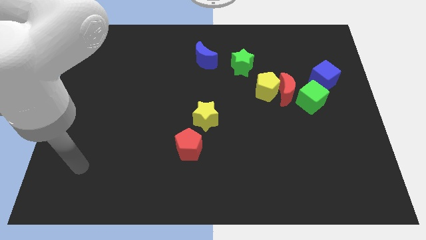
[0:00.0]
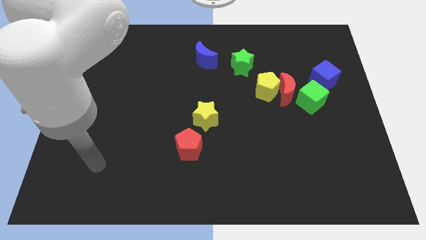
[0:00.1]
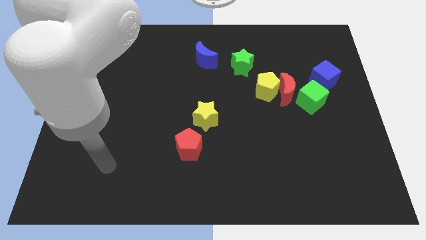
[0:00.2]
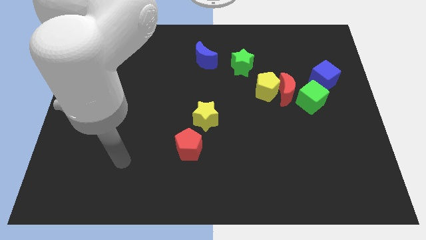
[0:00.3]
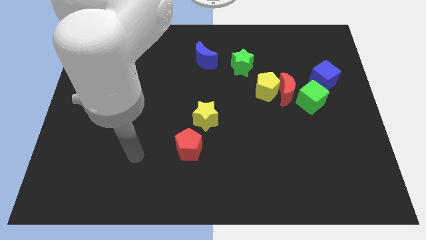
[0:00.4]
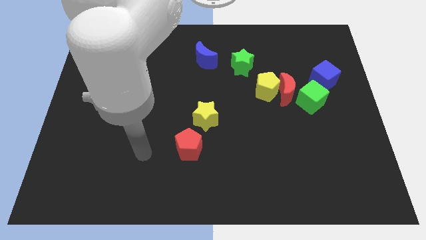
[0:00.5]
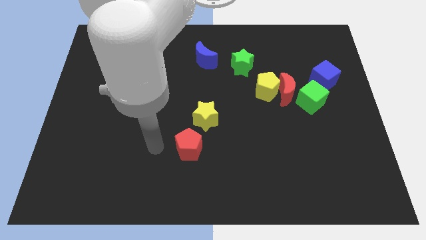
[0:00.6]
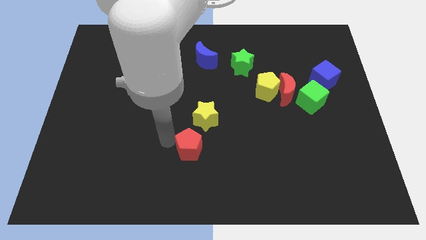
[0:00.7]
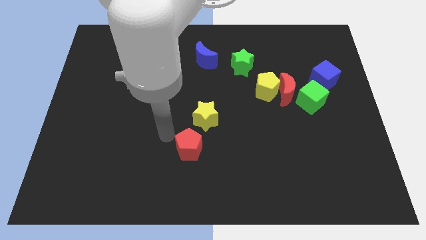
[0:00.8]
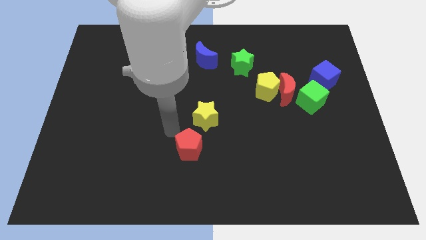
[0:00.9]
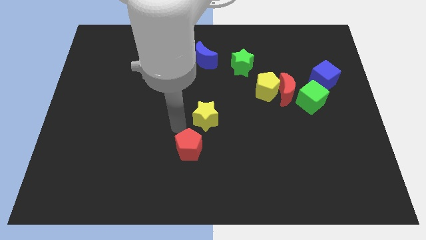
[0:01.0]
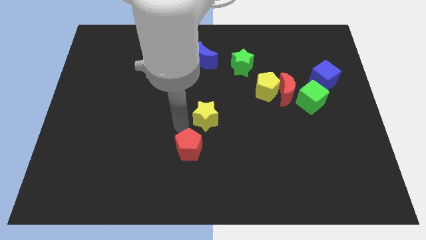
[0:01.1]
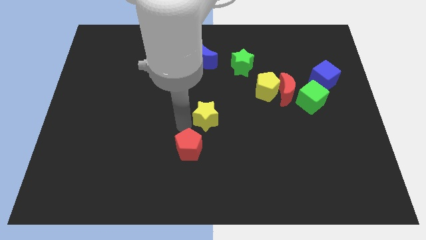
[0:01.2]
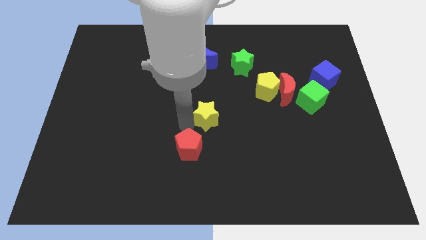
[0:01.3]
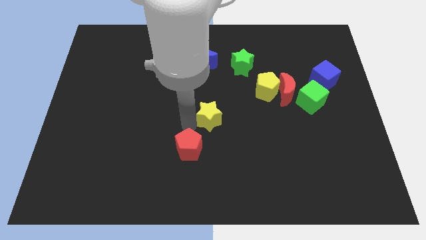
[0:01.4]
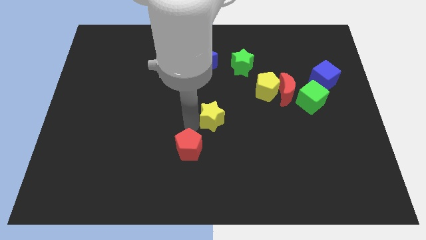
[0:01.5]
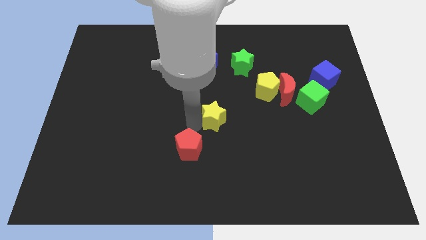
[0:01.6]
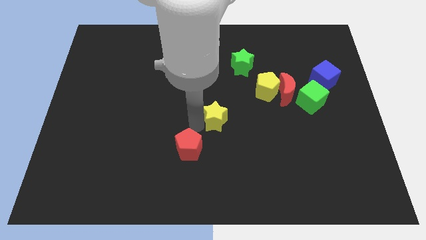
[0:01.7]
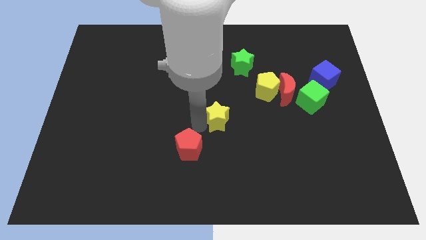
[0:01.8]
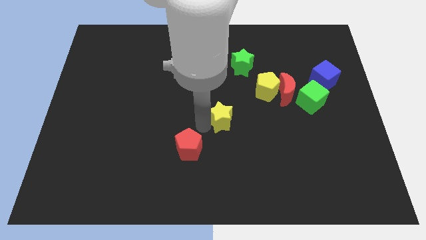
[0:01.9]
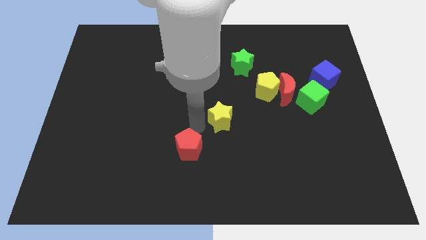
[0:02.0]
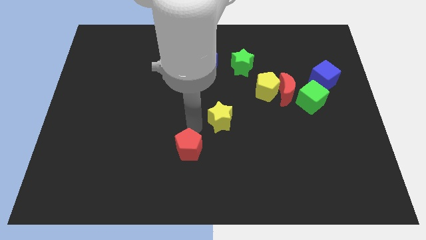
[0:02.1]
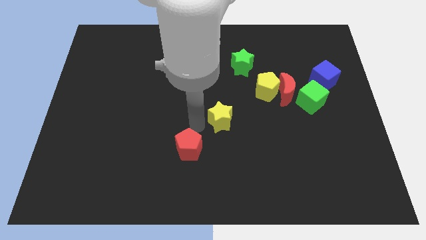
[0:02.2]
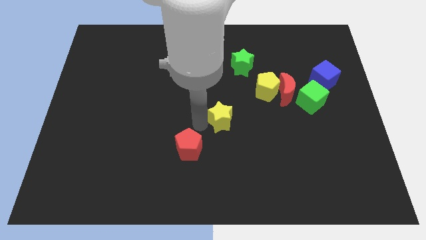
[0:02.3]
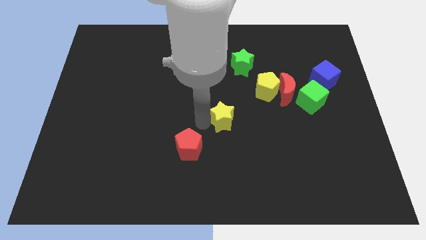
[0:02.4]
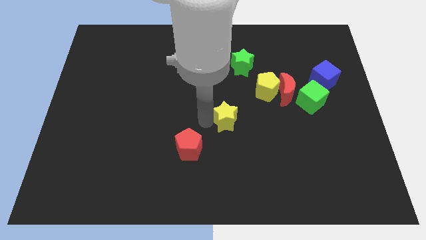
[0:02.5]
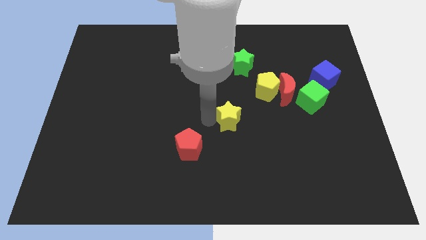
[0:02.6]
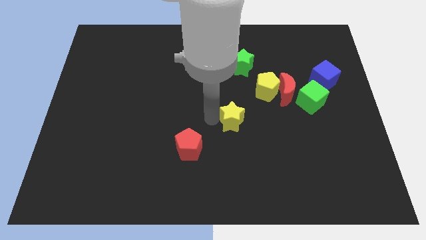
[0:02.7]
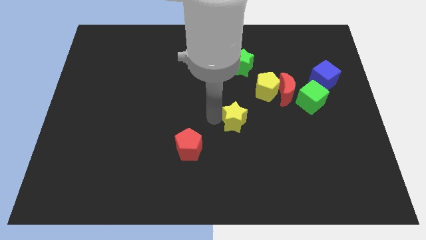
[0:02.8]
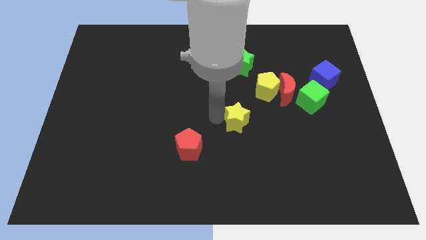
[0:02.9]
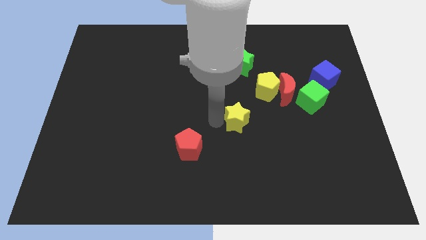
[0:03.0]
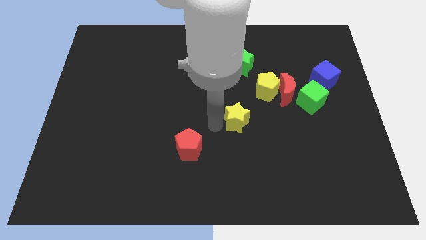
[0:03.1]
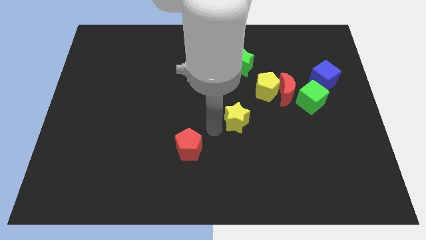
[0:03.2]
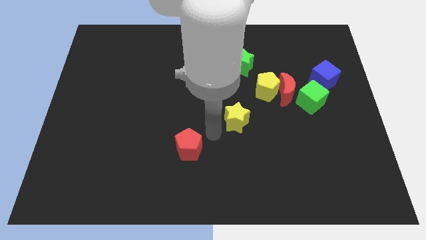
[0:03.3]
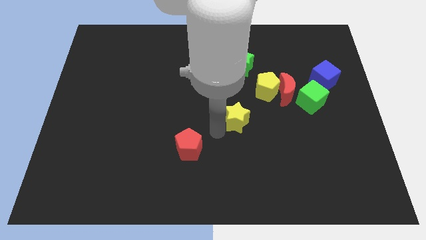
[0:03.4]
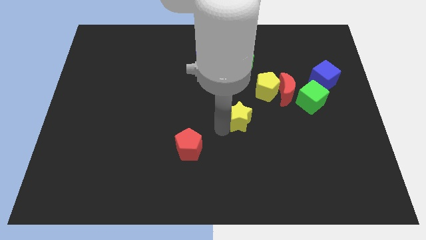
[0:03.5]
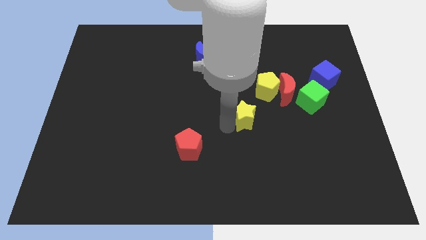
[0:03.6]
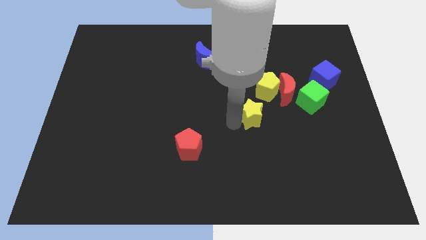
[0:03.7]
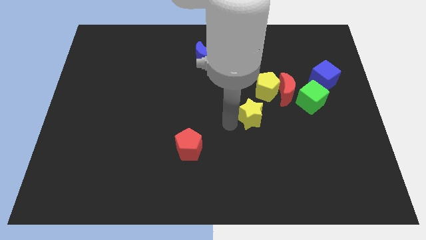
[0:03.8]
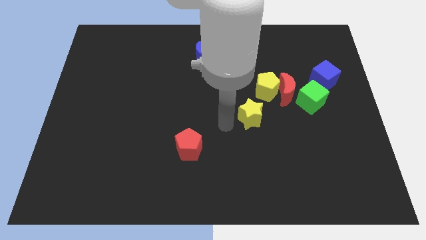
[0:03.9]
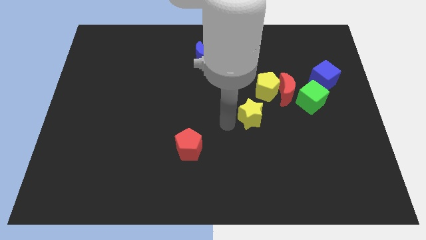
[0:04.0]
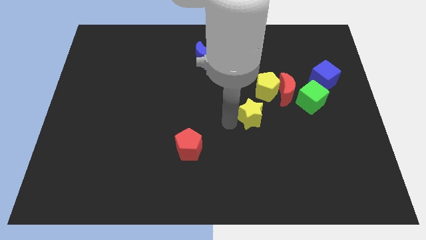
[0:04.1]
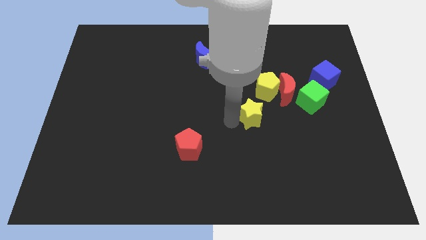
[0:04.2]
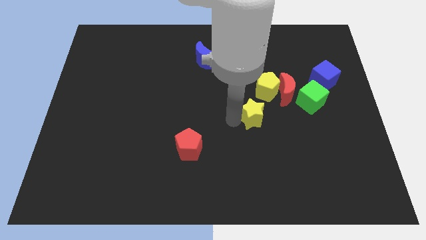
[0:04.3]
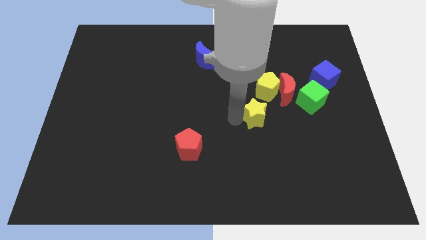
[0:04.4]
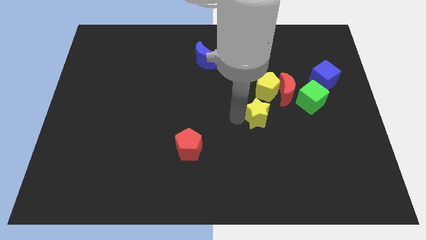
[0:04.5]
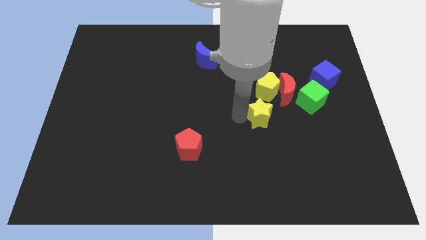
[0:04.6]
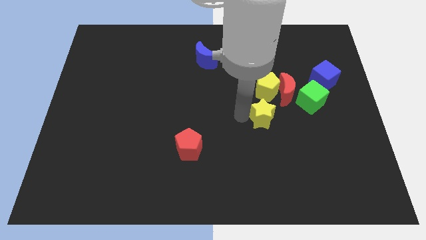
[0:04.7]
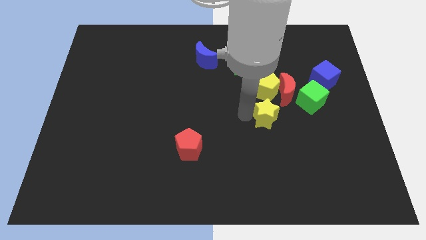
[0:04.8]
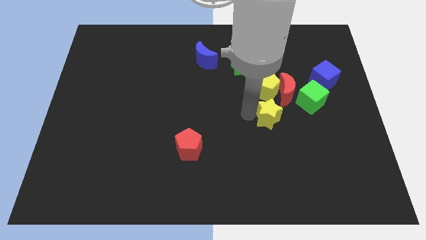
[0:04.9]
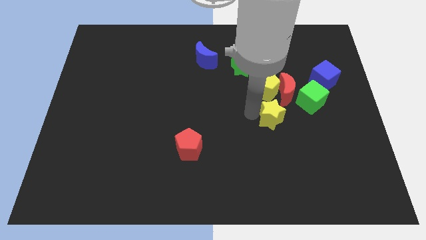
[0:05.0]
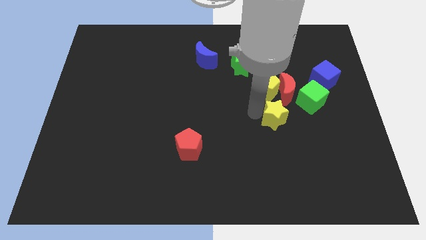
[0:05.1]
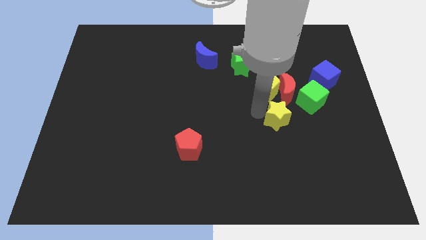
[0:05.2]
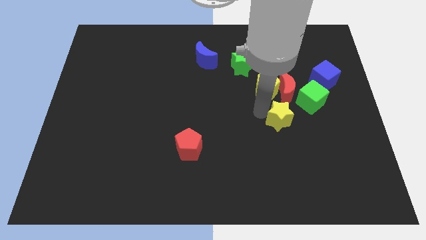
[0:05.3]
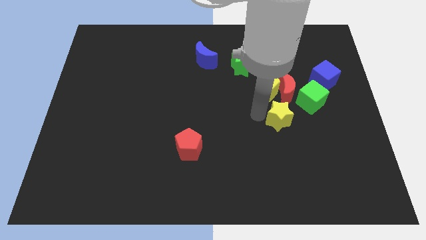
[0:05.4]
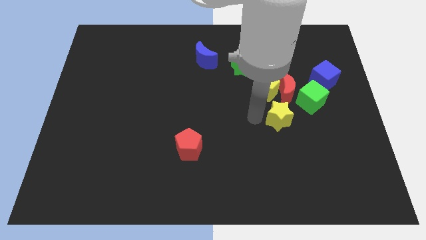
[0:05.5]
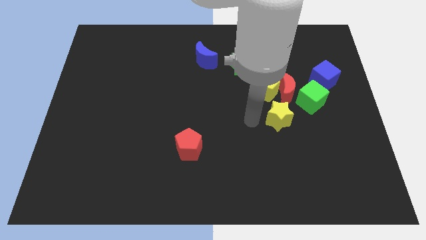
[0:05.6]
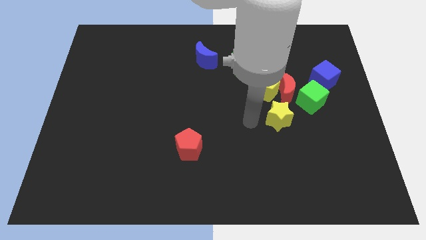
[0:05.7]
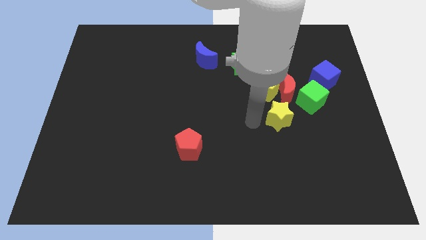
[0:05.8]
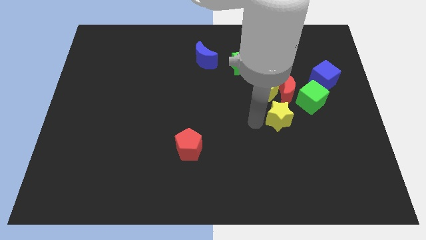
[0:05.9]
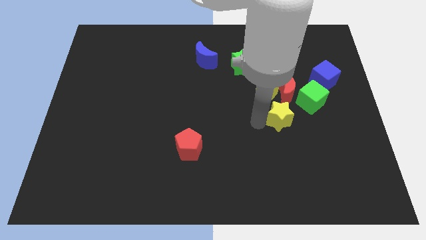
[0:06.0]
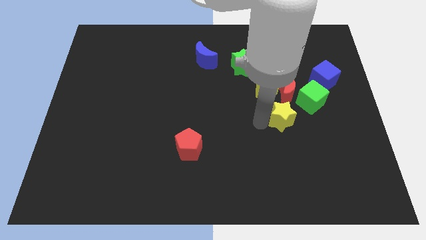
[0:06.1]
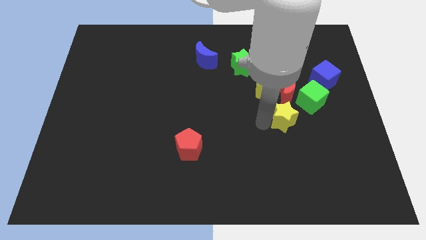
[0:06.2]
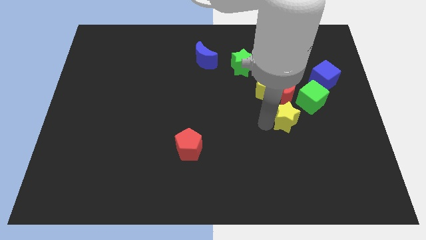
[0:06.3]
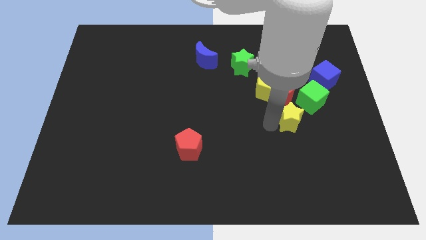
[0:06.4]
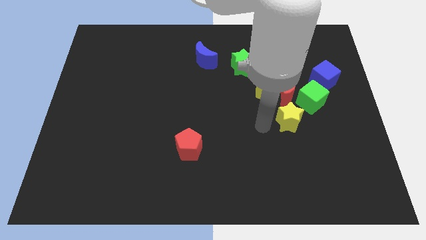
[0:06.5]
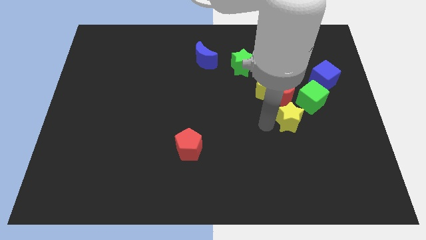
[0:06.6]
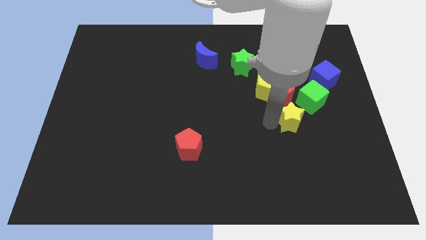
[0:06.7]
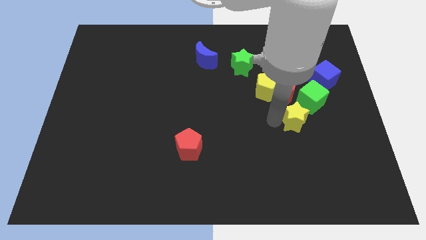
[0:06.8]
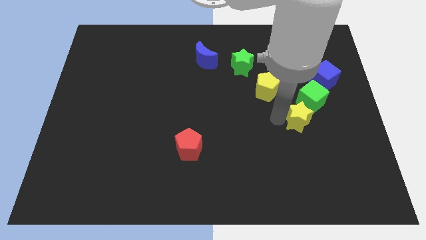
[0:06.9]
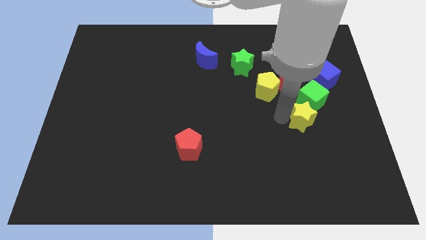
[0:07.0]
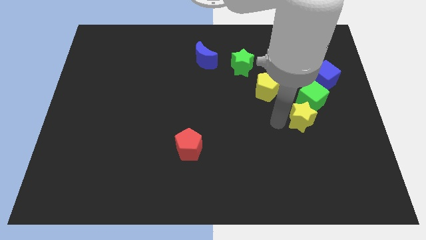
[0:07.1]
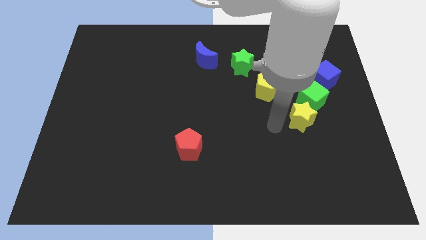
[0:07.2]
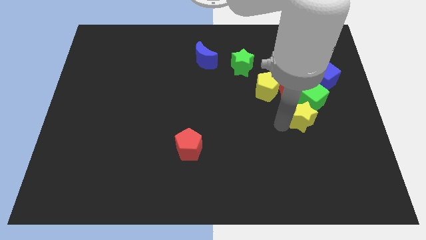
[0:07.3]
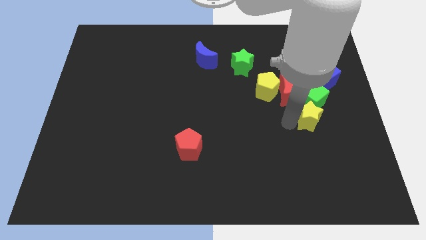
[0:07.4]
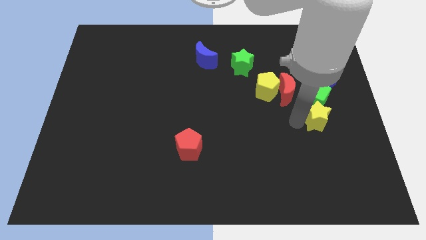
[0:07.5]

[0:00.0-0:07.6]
slide the yellow star to the bottom side of the blue cube
